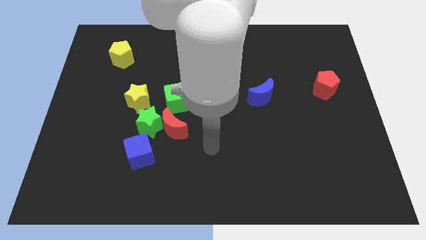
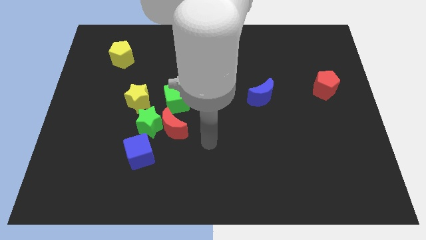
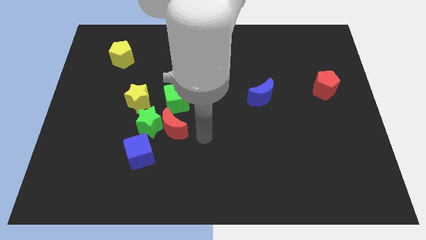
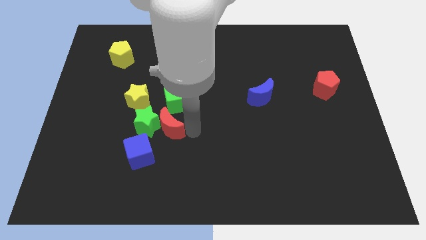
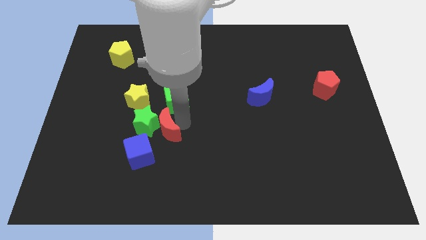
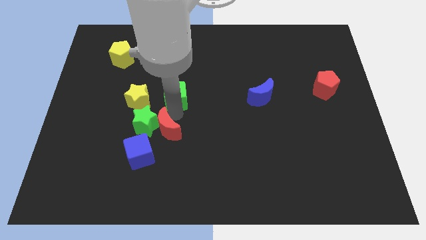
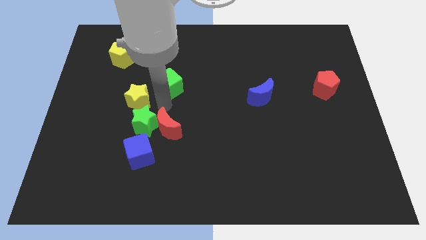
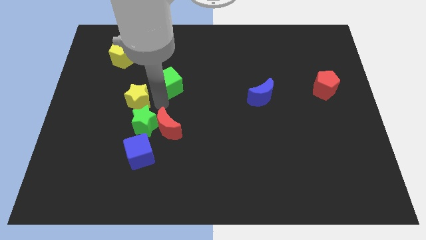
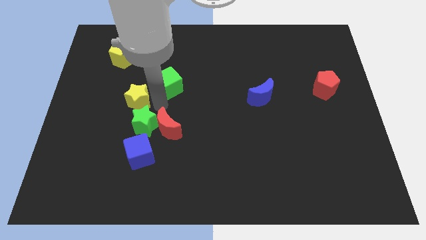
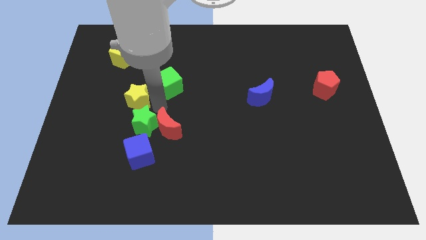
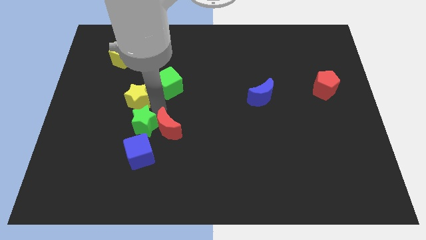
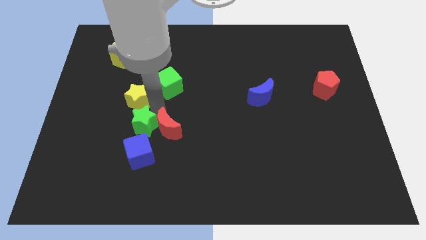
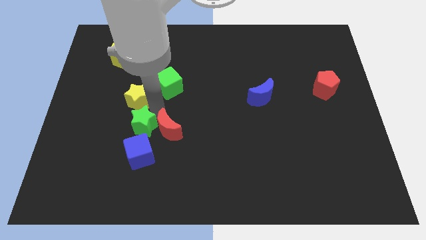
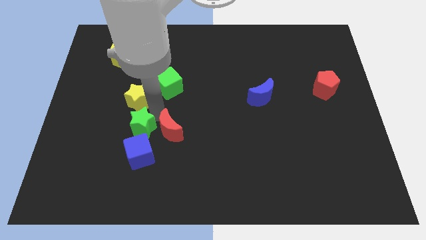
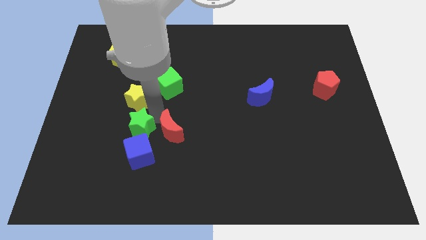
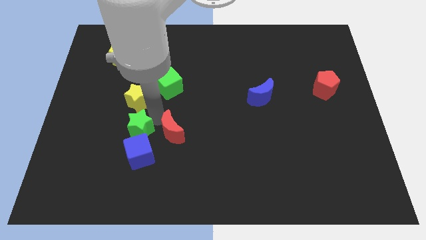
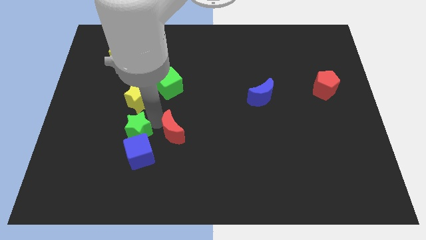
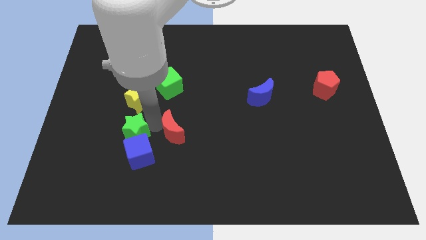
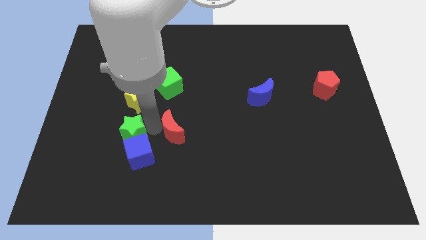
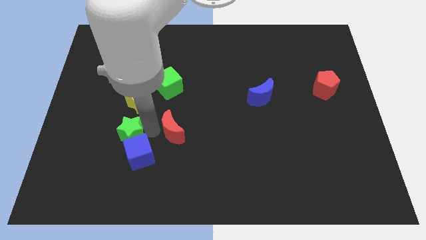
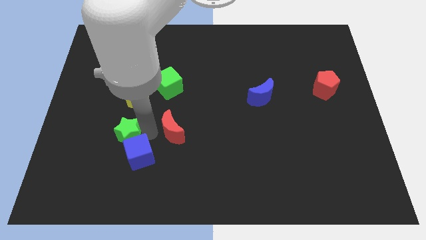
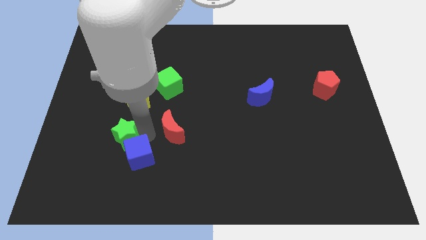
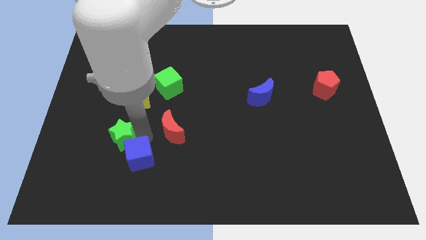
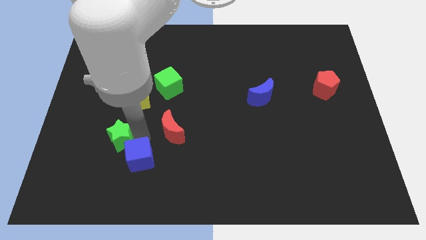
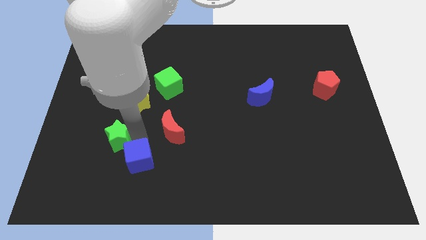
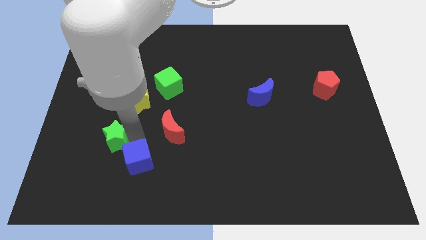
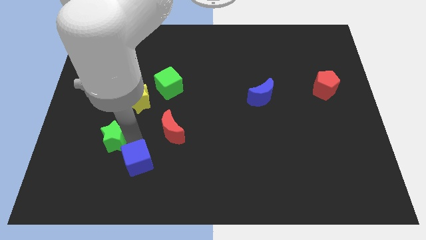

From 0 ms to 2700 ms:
move the green star away from the group

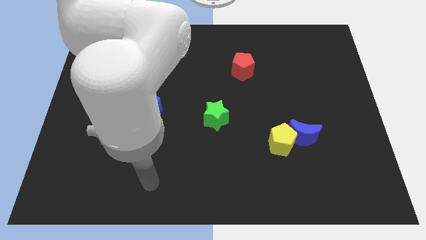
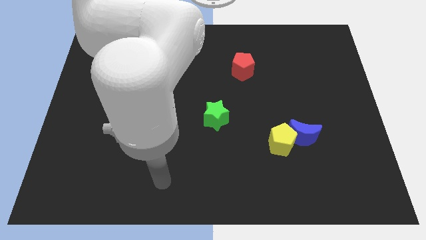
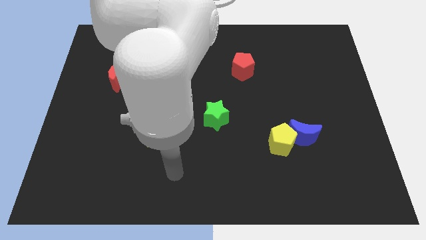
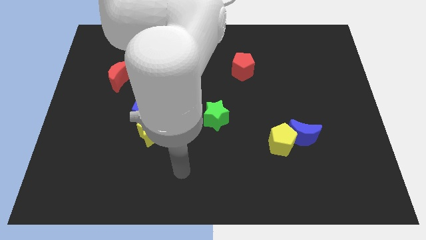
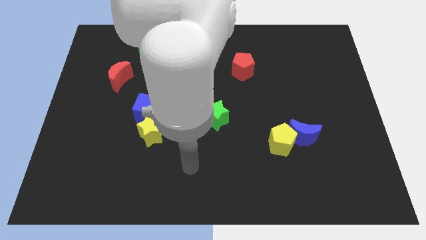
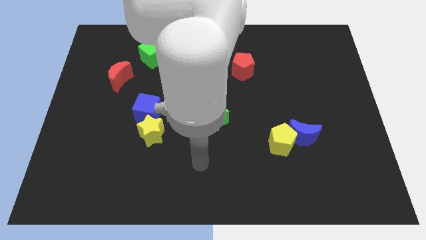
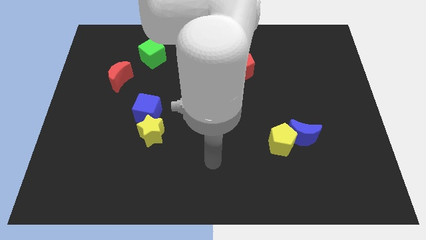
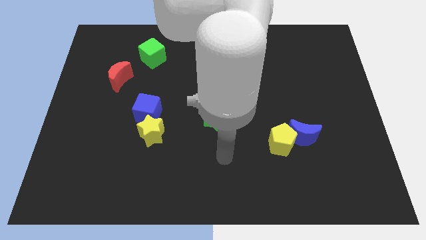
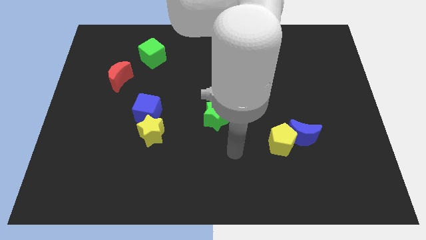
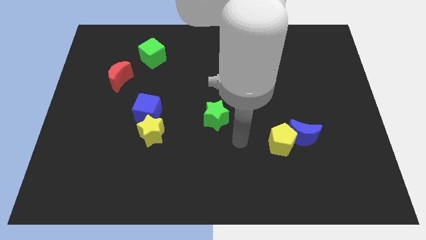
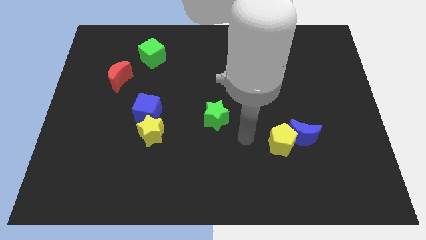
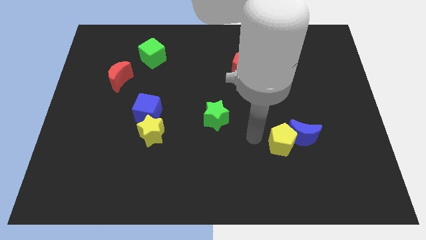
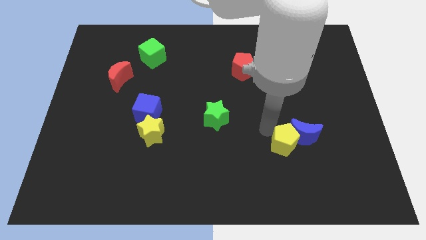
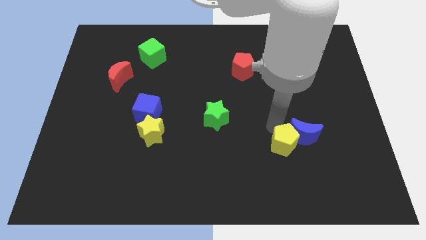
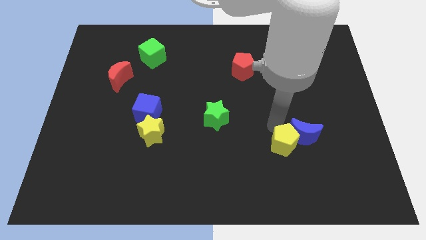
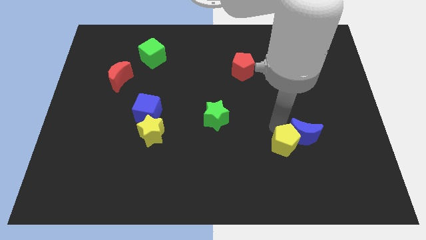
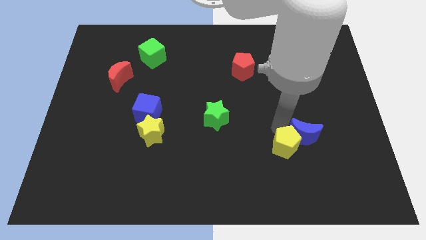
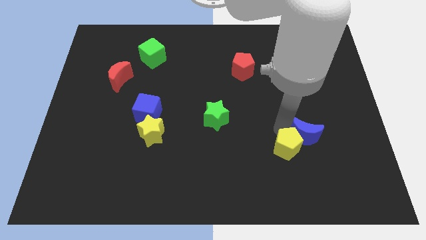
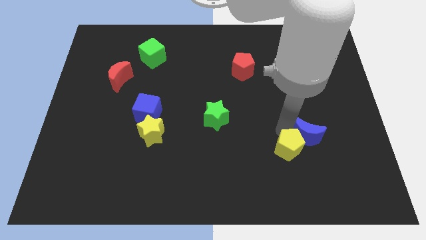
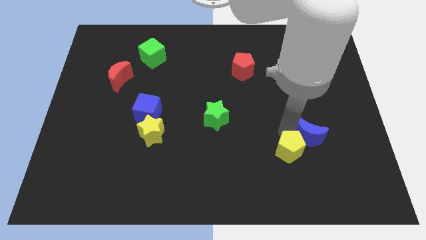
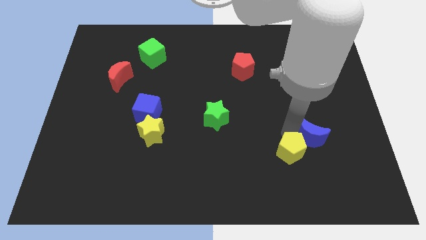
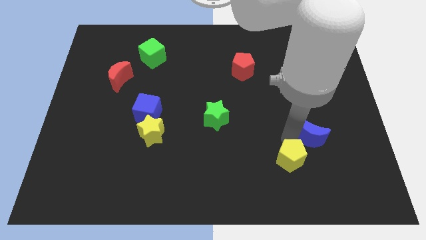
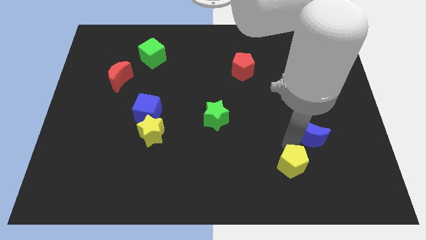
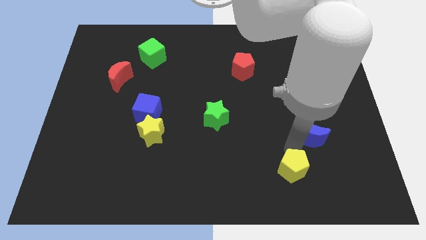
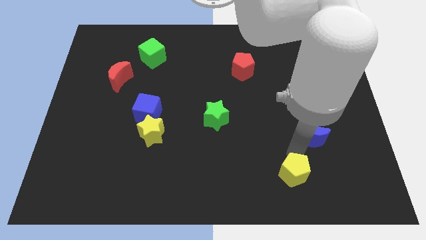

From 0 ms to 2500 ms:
move the blue moon away from the yellow pentagon

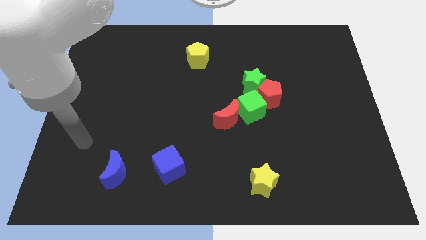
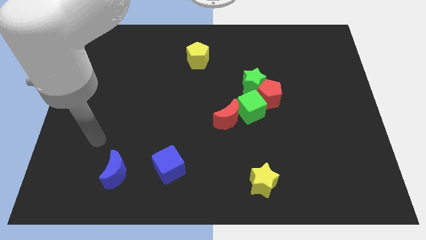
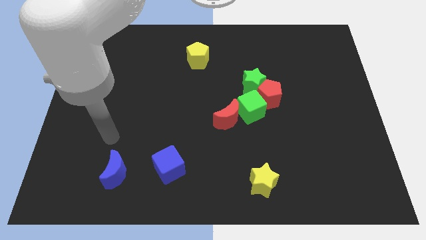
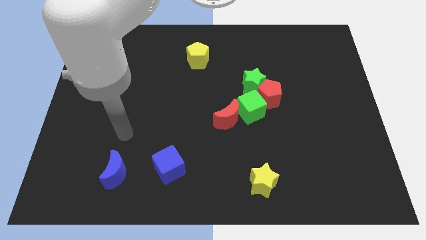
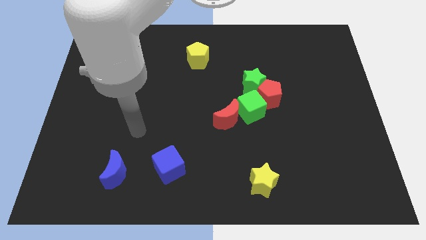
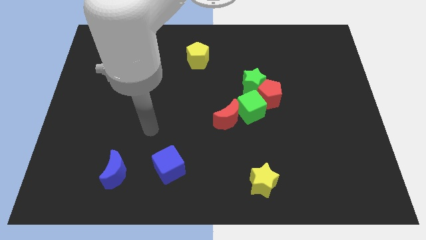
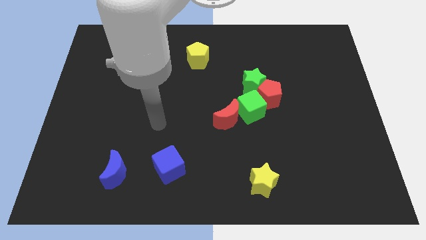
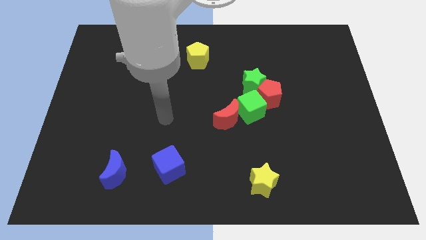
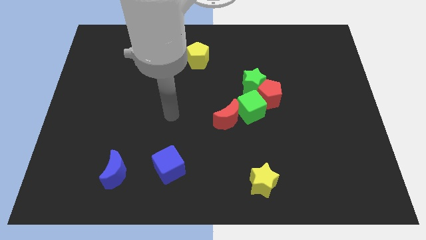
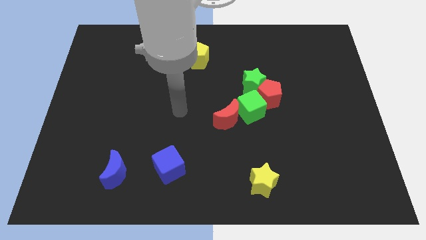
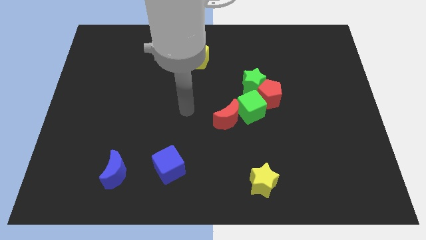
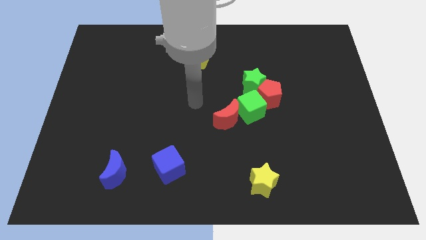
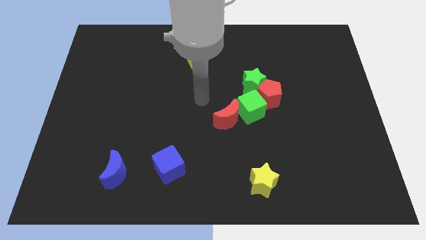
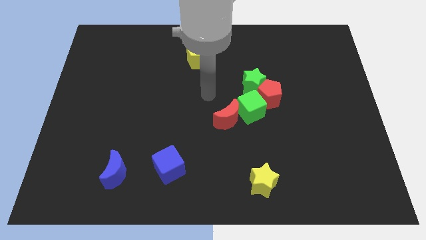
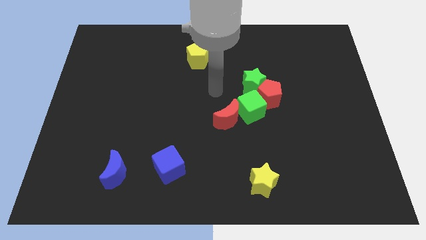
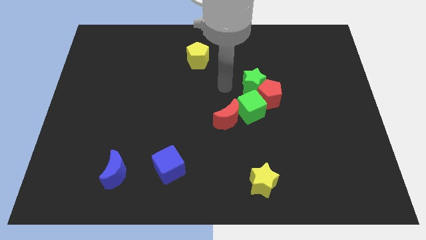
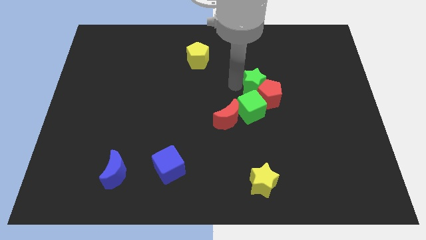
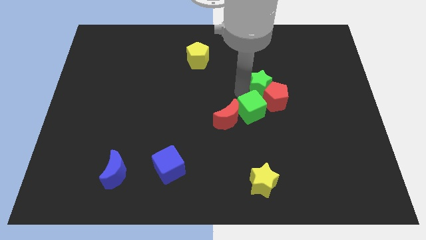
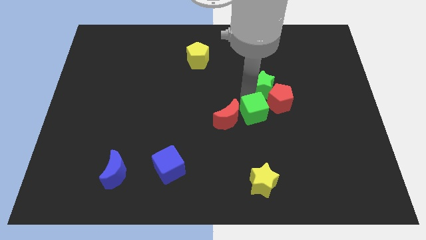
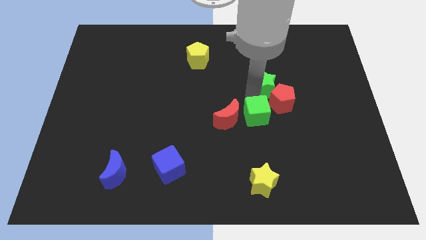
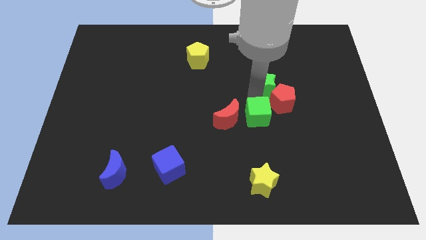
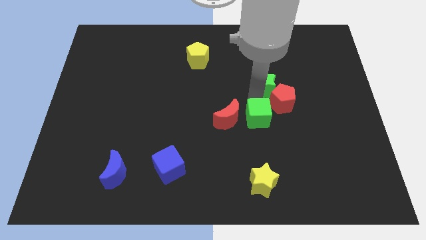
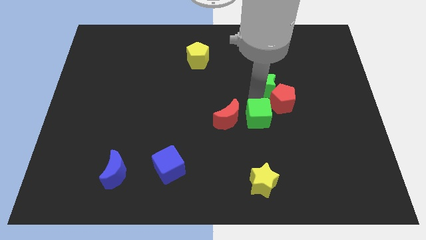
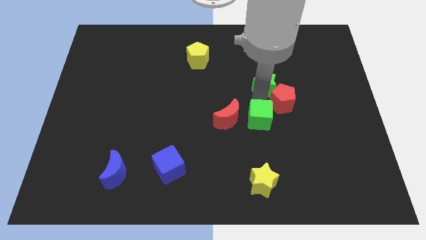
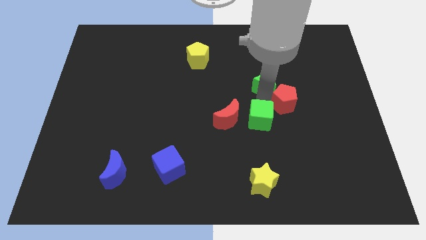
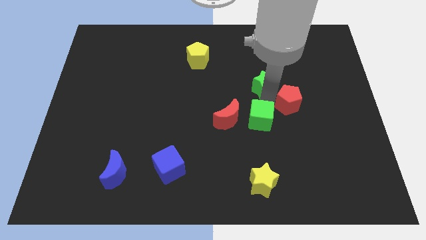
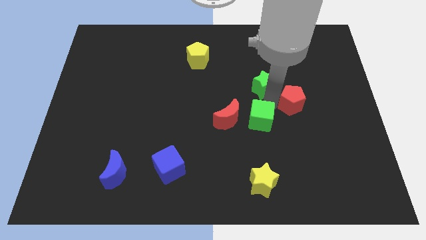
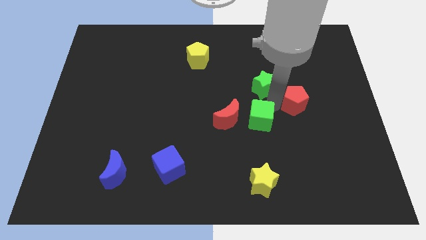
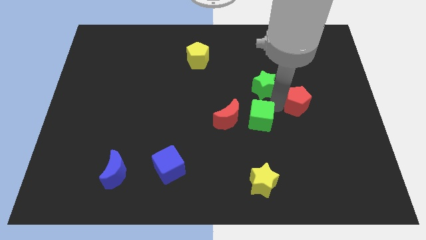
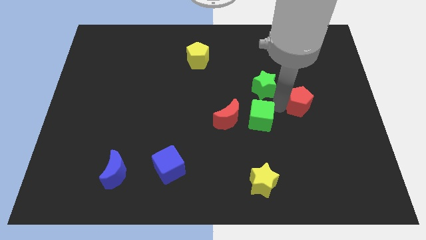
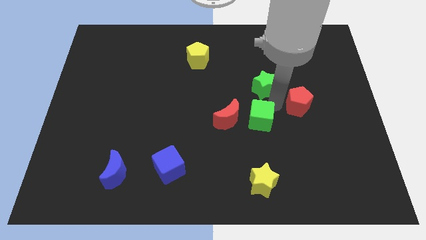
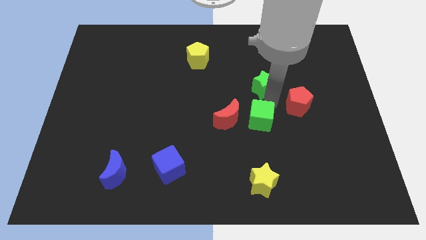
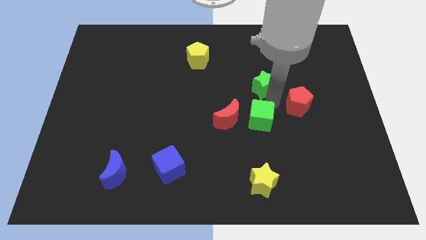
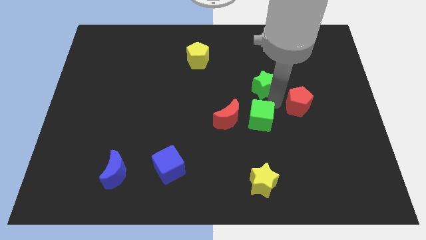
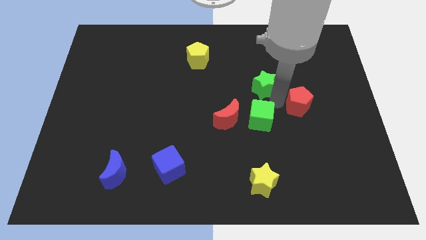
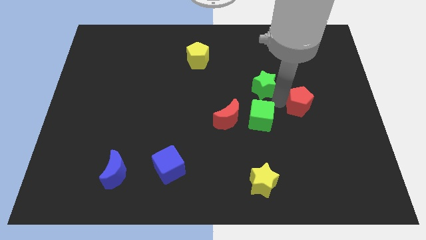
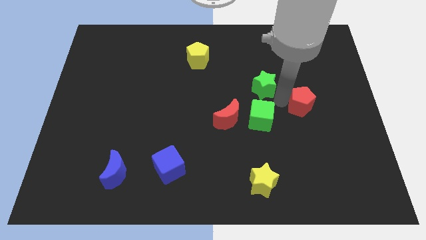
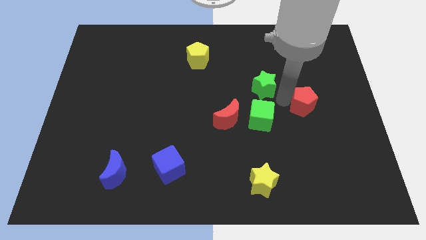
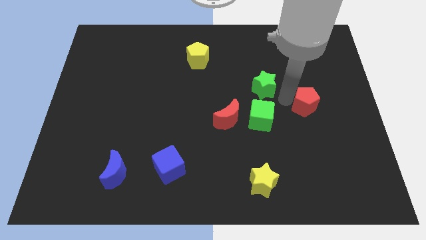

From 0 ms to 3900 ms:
move the red pentagon away from the green star and green cube

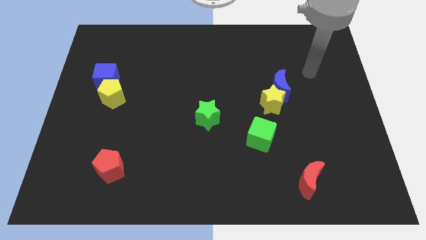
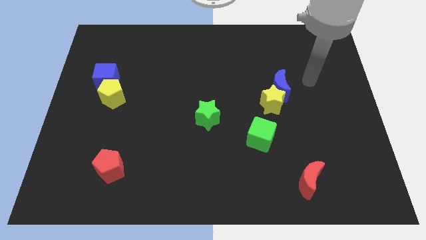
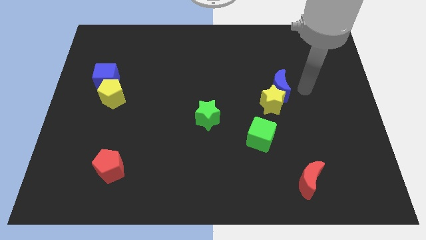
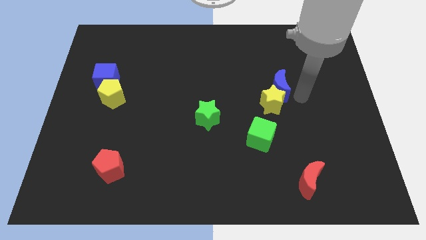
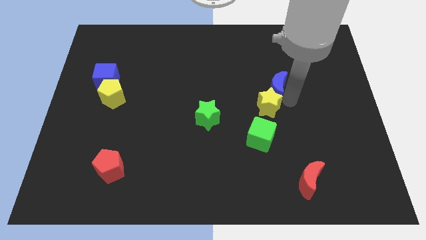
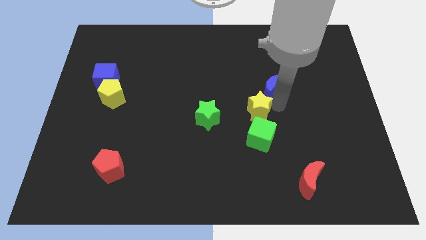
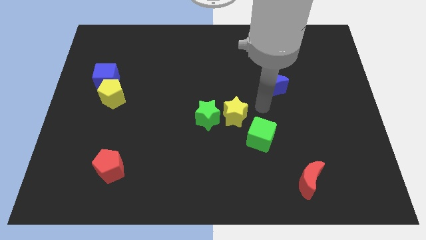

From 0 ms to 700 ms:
separate the blue moon from the yellow star
